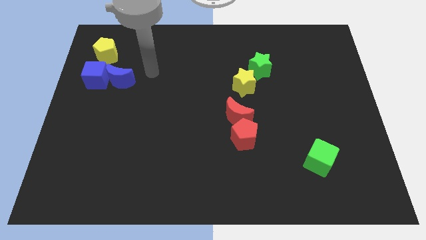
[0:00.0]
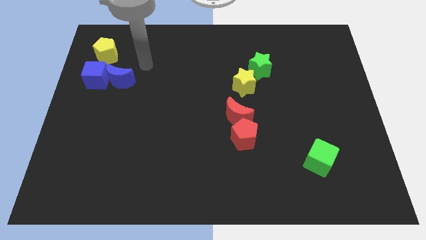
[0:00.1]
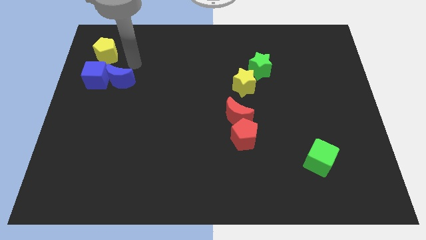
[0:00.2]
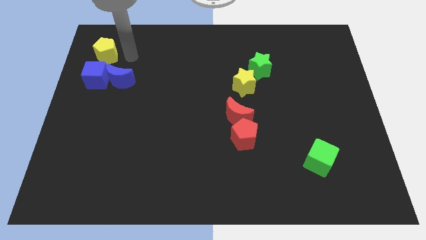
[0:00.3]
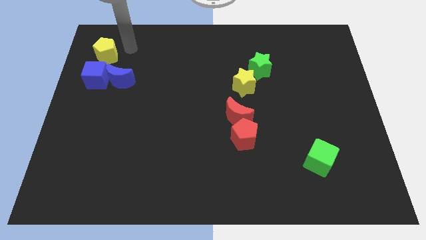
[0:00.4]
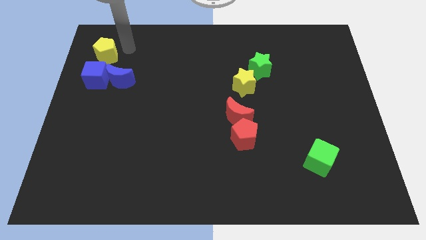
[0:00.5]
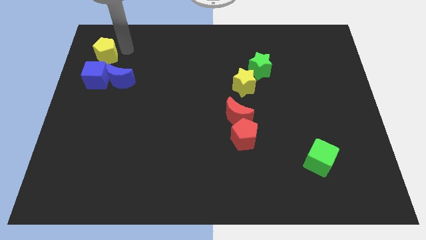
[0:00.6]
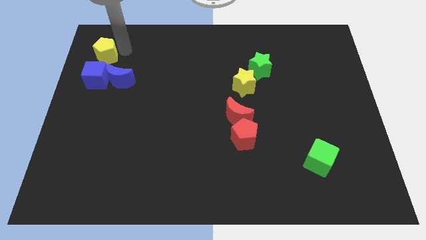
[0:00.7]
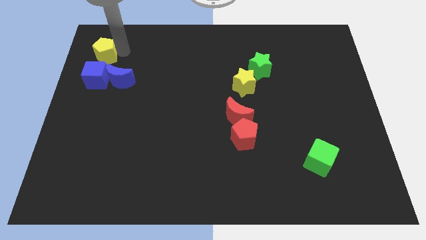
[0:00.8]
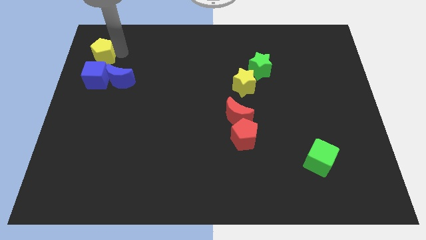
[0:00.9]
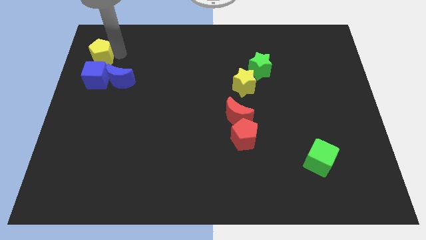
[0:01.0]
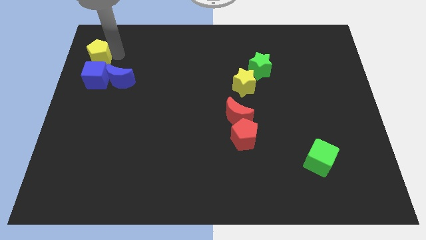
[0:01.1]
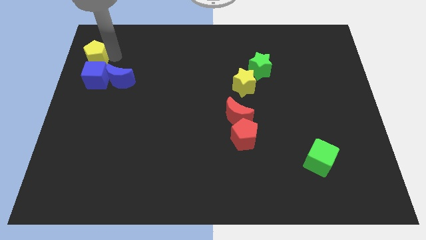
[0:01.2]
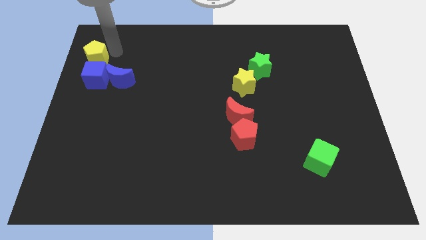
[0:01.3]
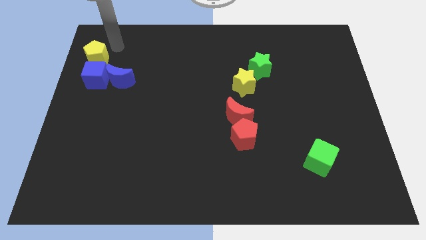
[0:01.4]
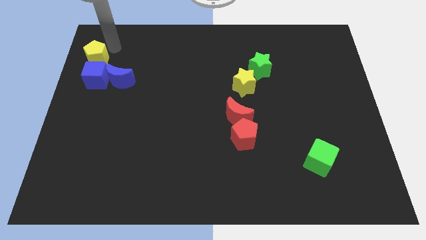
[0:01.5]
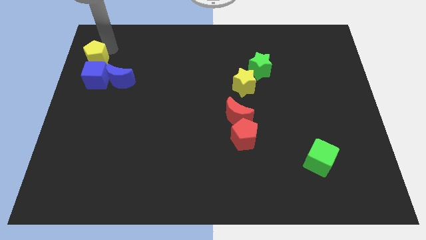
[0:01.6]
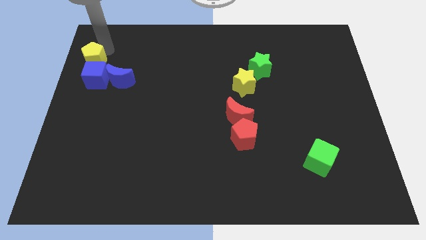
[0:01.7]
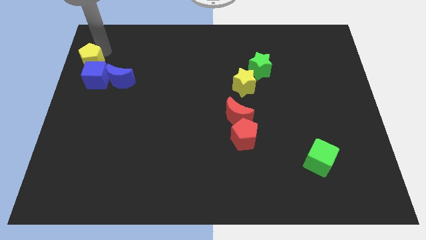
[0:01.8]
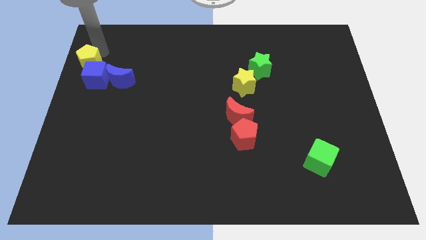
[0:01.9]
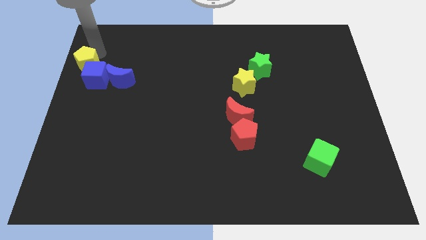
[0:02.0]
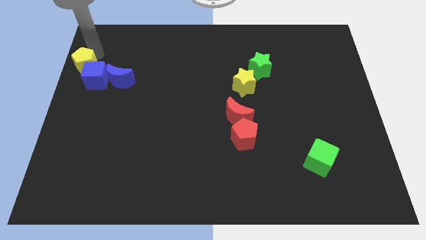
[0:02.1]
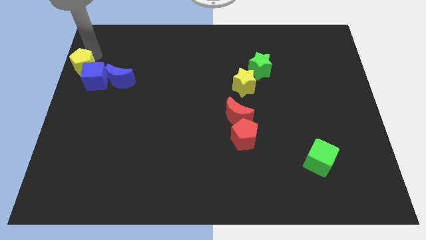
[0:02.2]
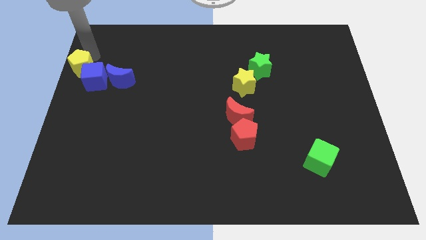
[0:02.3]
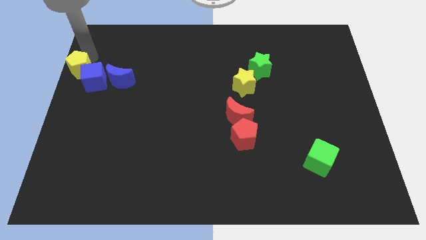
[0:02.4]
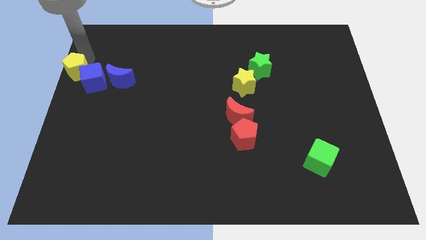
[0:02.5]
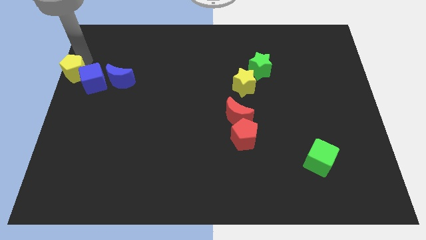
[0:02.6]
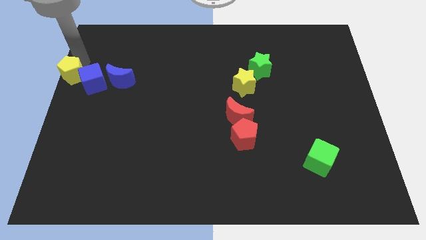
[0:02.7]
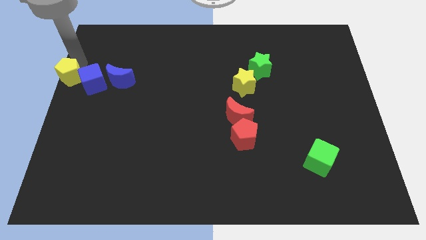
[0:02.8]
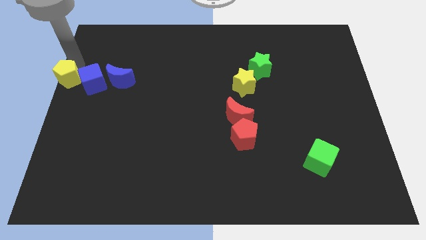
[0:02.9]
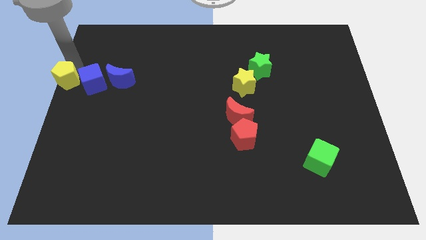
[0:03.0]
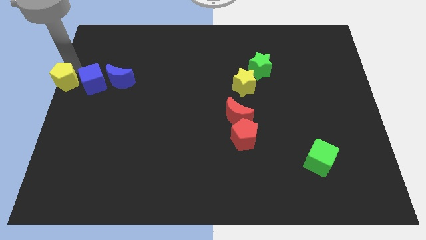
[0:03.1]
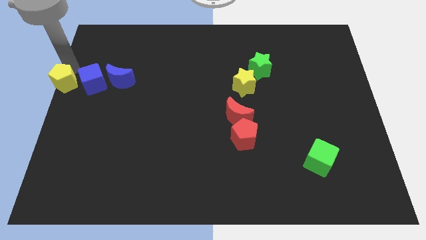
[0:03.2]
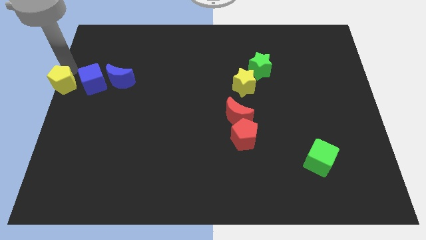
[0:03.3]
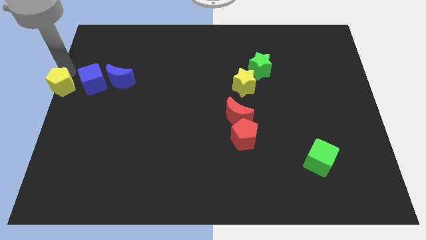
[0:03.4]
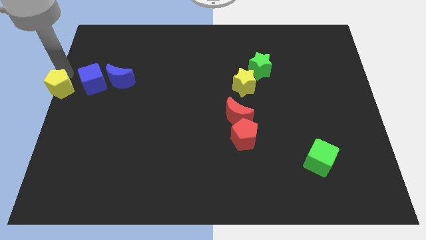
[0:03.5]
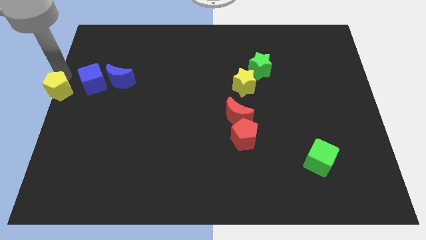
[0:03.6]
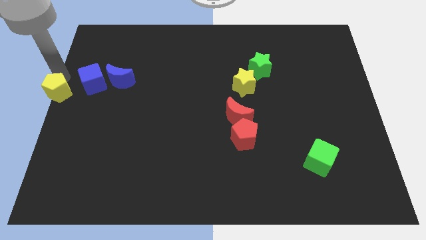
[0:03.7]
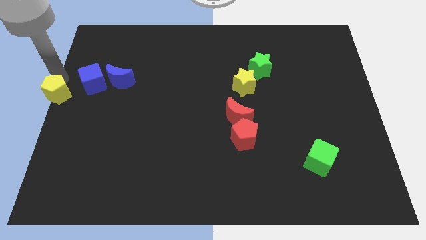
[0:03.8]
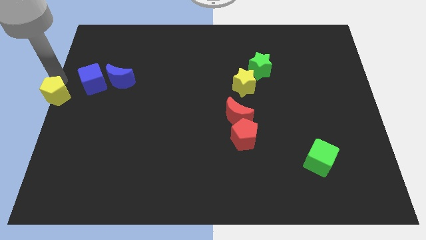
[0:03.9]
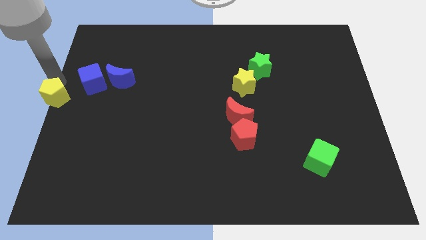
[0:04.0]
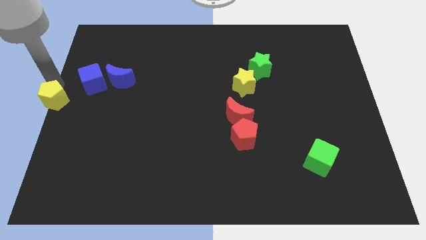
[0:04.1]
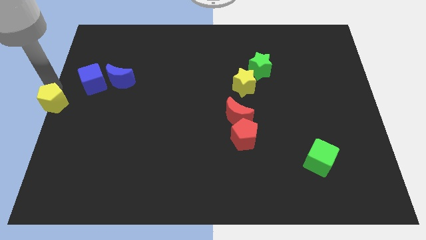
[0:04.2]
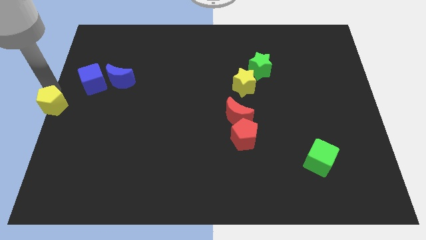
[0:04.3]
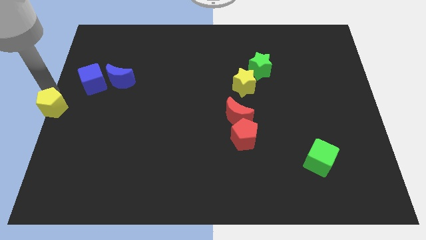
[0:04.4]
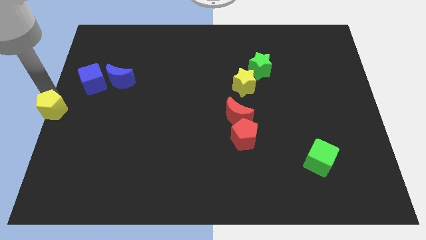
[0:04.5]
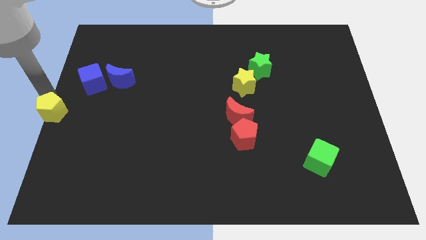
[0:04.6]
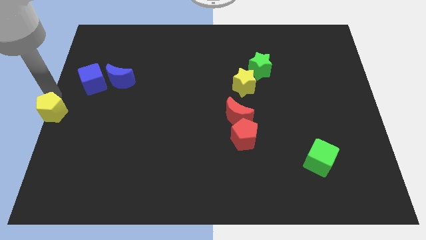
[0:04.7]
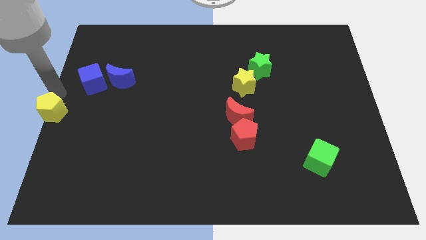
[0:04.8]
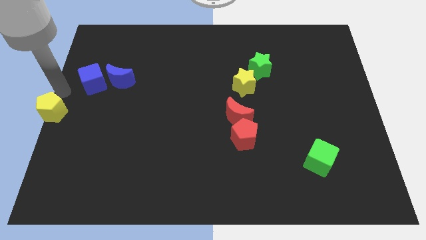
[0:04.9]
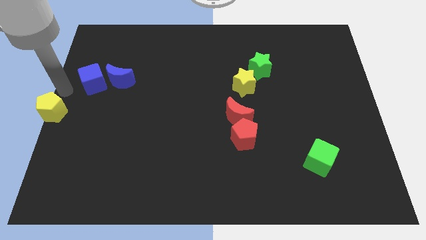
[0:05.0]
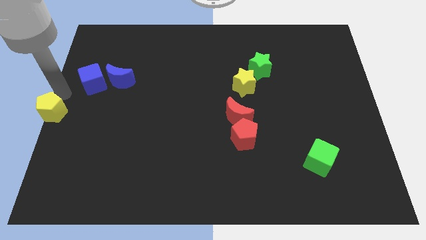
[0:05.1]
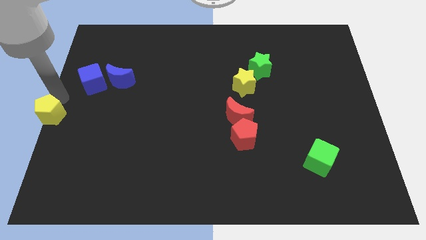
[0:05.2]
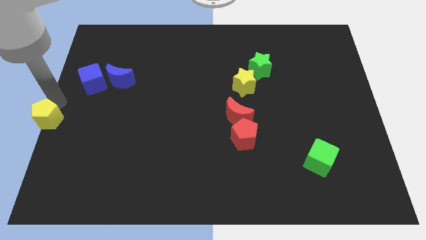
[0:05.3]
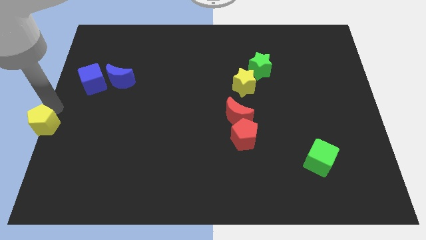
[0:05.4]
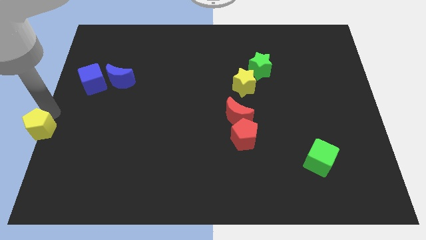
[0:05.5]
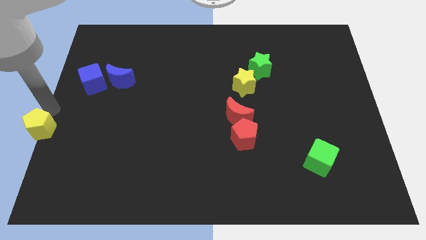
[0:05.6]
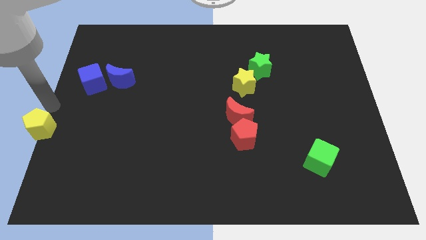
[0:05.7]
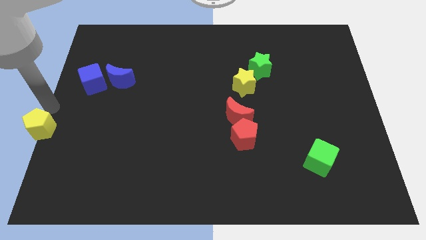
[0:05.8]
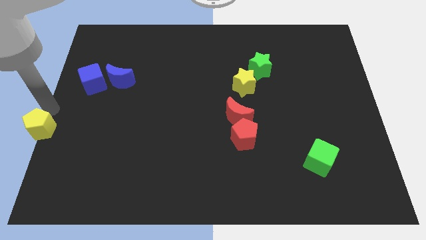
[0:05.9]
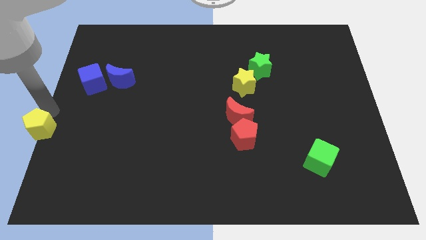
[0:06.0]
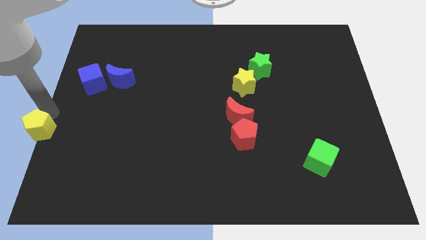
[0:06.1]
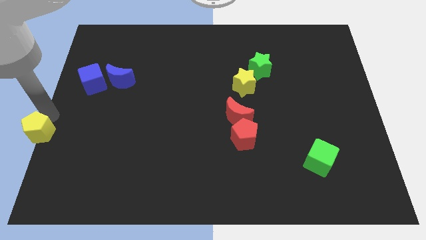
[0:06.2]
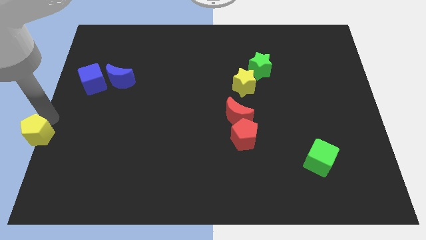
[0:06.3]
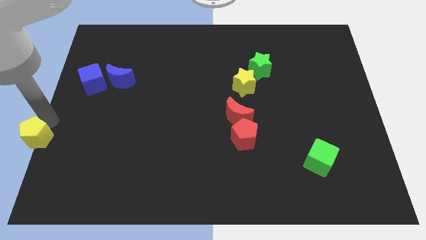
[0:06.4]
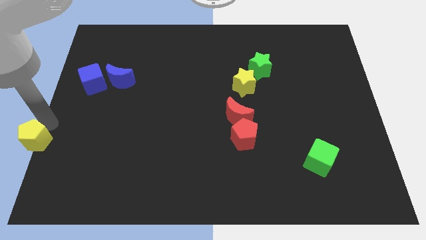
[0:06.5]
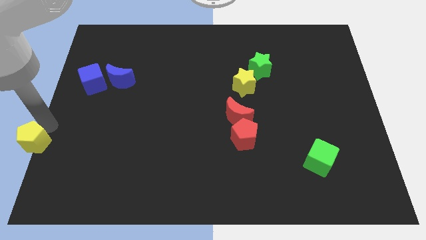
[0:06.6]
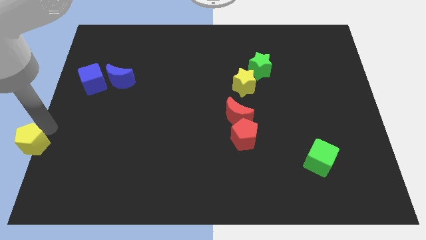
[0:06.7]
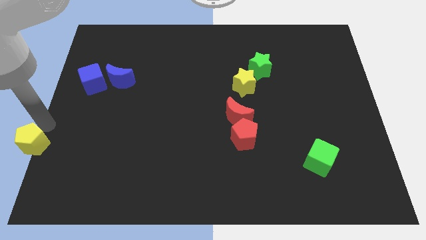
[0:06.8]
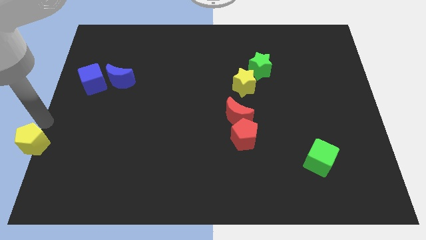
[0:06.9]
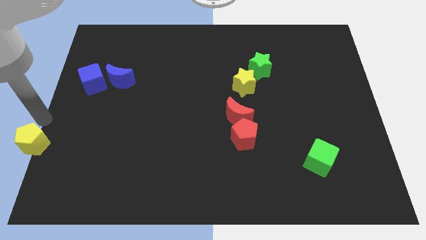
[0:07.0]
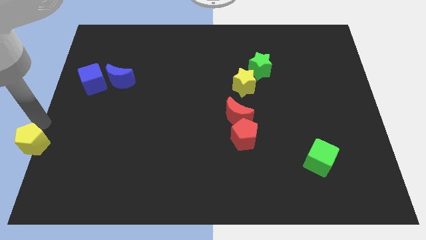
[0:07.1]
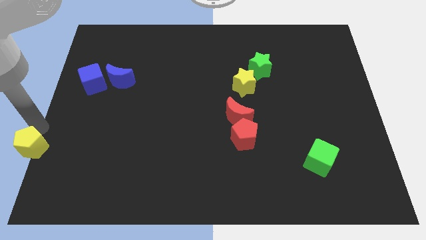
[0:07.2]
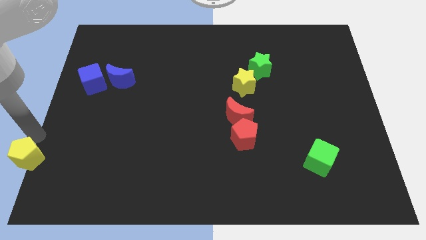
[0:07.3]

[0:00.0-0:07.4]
slide the yellow pentagon to the lower left corner
